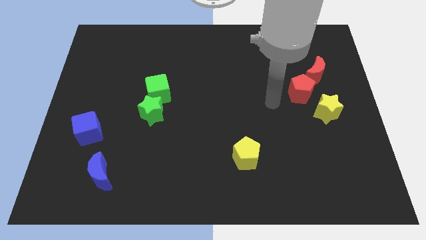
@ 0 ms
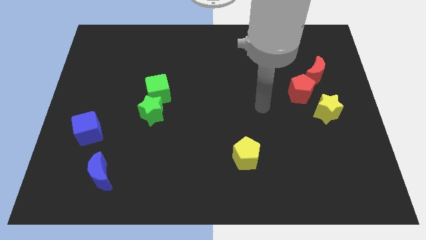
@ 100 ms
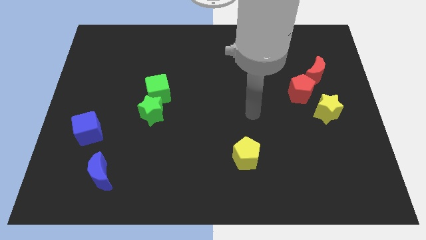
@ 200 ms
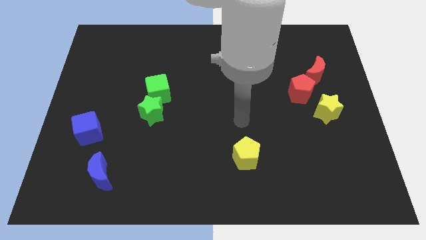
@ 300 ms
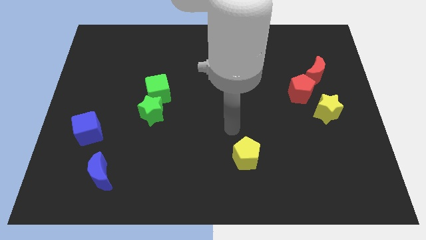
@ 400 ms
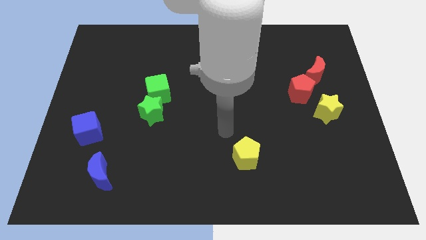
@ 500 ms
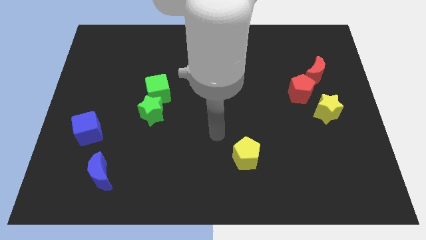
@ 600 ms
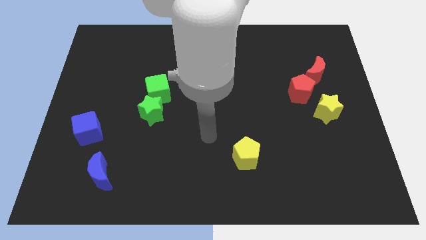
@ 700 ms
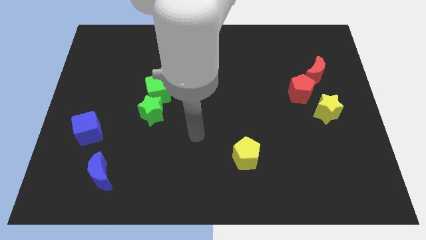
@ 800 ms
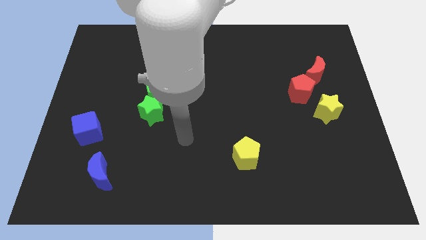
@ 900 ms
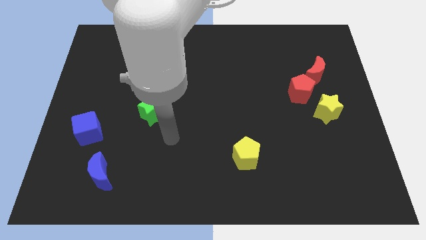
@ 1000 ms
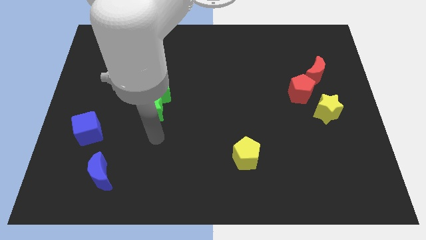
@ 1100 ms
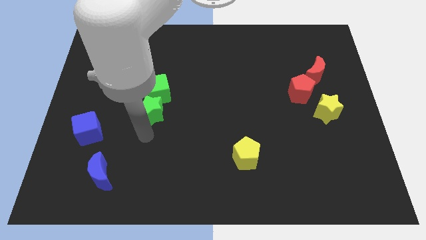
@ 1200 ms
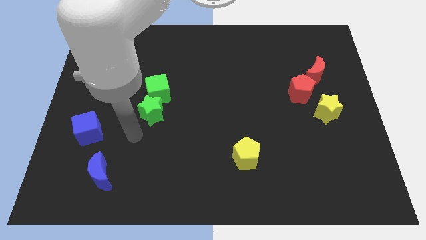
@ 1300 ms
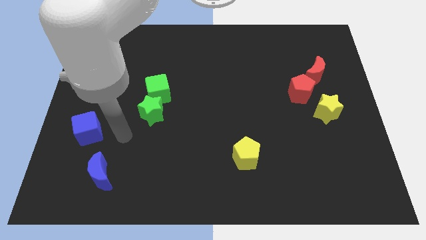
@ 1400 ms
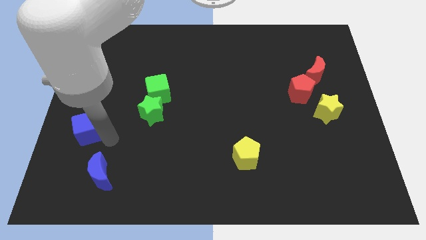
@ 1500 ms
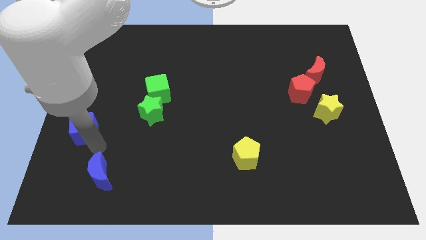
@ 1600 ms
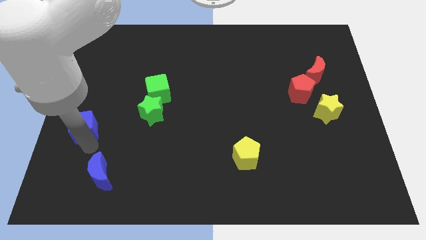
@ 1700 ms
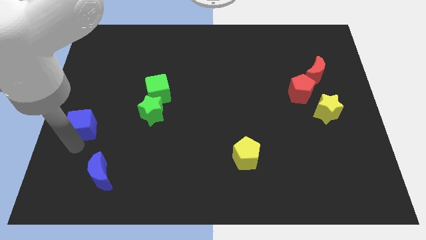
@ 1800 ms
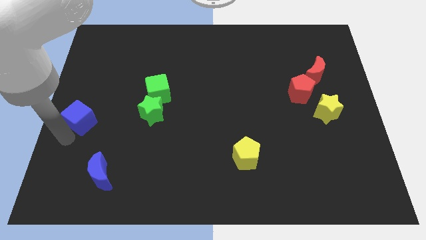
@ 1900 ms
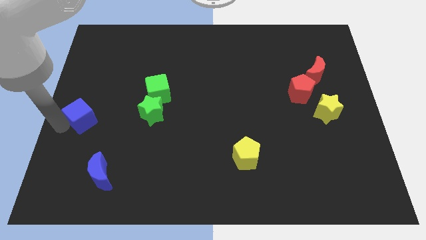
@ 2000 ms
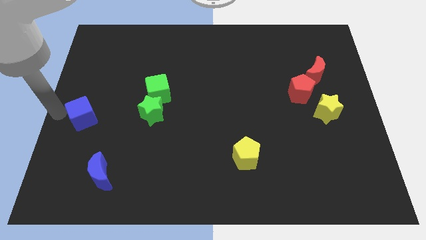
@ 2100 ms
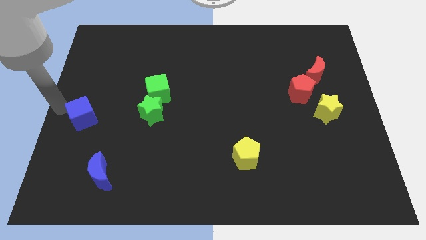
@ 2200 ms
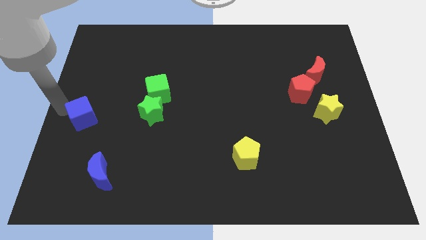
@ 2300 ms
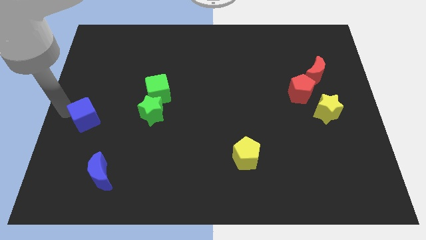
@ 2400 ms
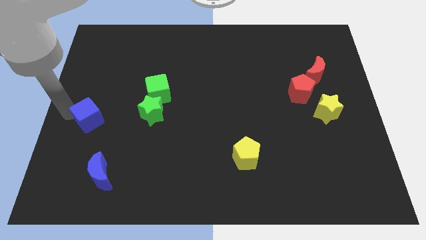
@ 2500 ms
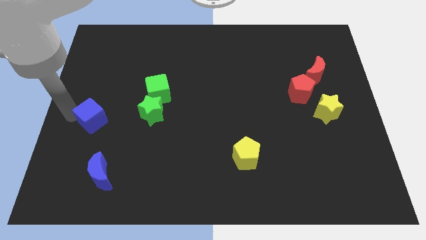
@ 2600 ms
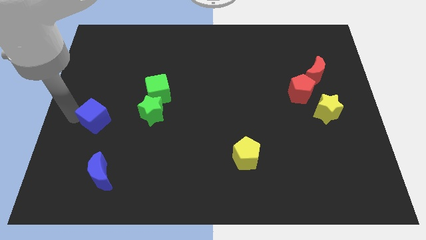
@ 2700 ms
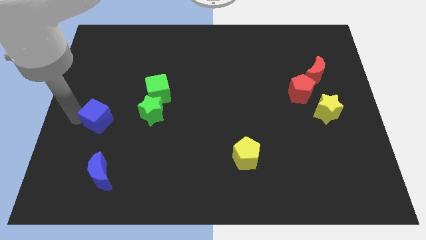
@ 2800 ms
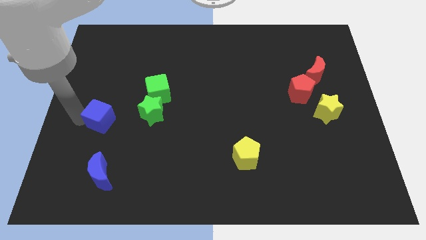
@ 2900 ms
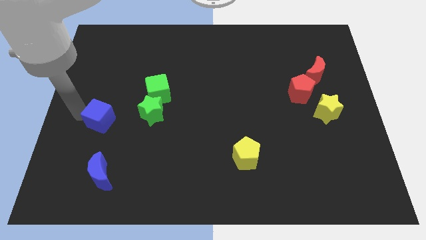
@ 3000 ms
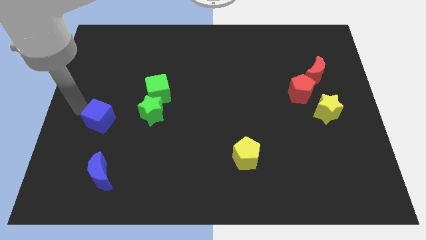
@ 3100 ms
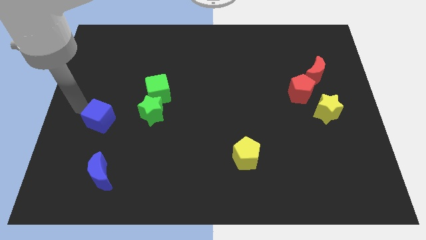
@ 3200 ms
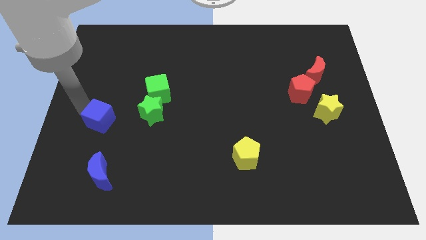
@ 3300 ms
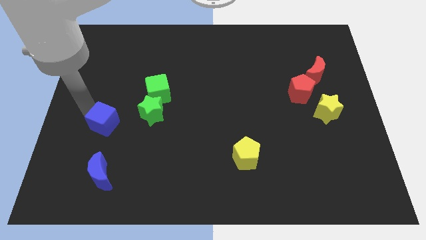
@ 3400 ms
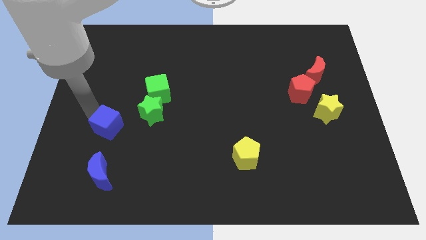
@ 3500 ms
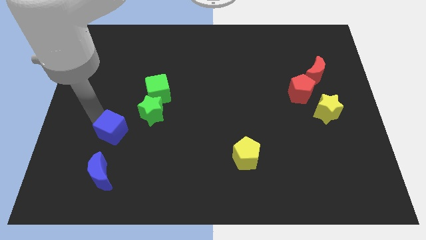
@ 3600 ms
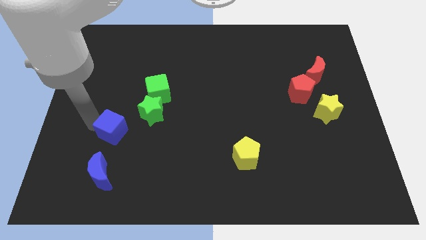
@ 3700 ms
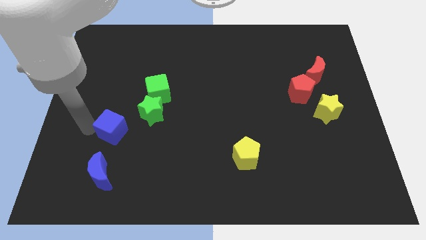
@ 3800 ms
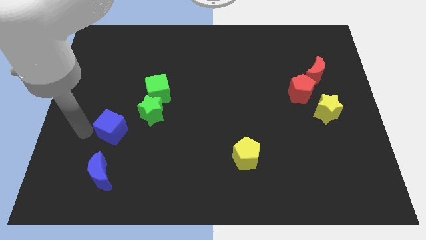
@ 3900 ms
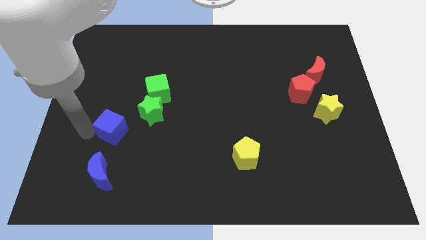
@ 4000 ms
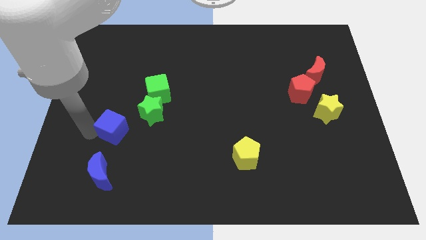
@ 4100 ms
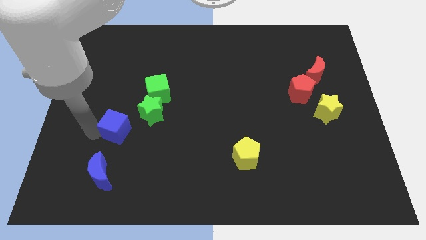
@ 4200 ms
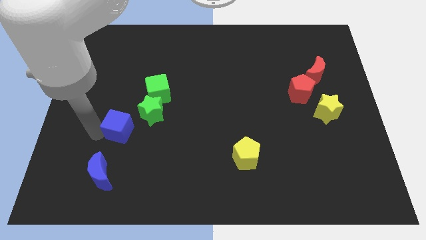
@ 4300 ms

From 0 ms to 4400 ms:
push the blue cube to the right somewhat

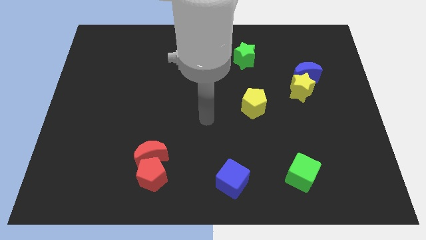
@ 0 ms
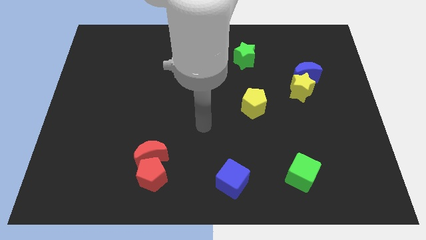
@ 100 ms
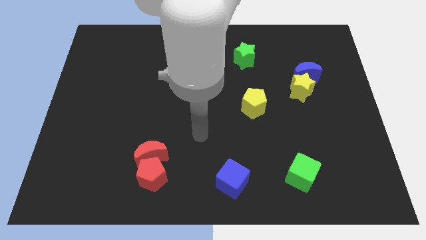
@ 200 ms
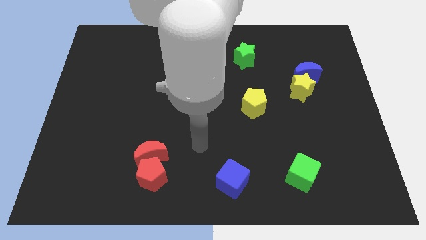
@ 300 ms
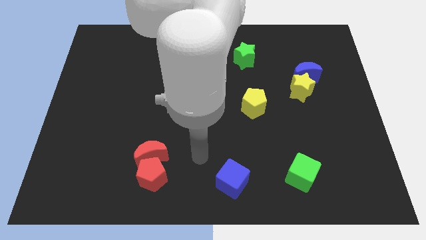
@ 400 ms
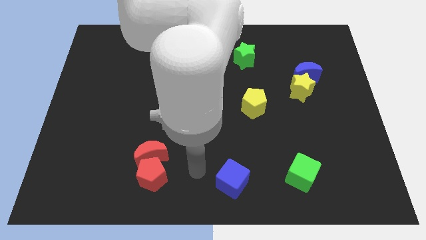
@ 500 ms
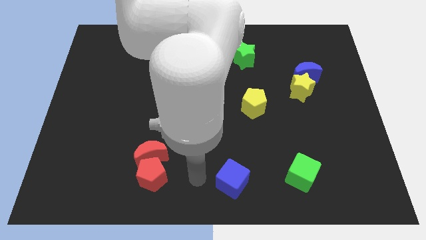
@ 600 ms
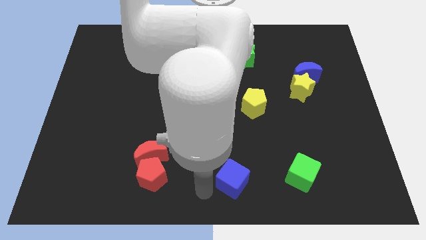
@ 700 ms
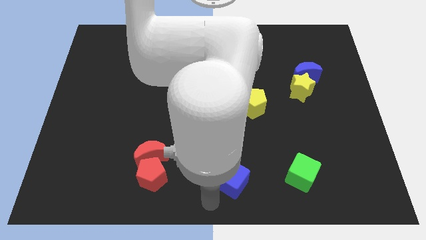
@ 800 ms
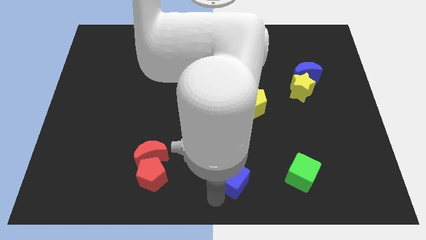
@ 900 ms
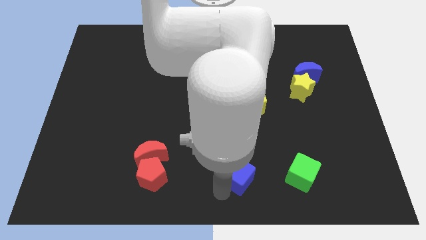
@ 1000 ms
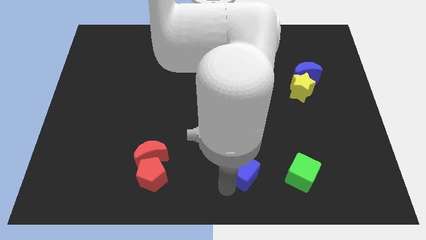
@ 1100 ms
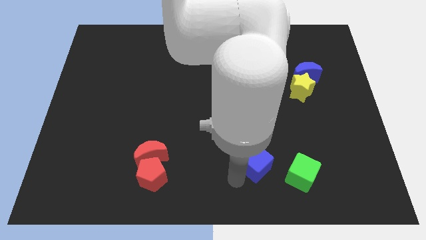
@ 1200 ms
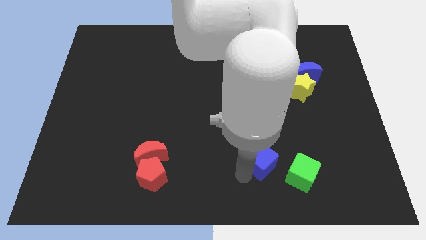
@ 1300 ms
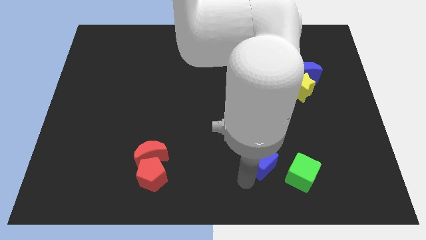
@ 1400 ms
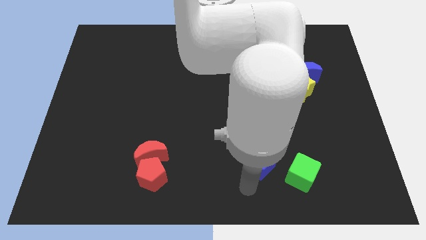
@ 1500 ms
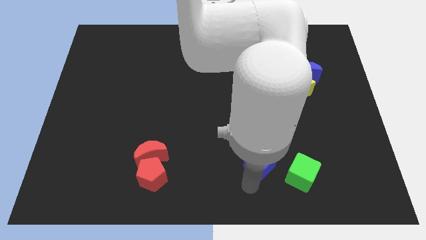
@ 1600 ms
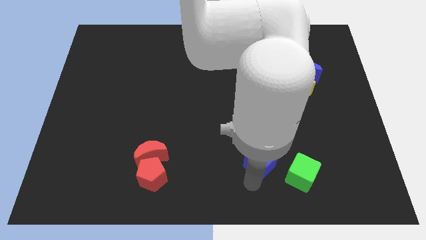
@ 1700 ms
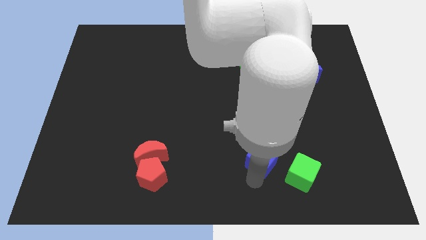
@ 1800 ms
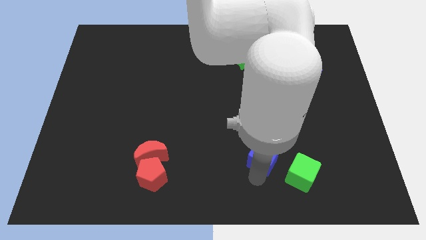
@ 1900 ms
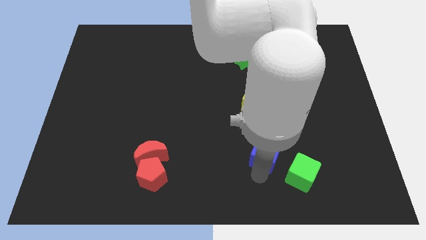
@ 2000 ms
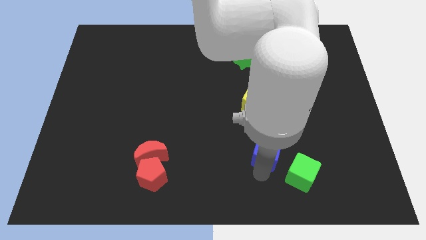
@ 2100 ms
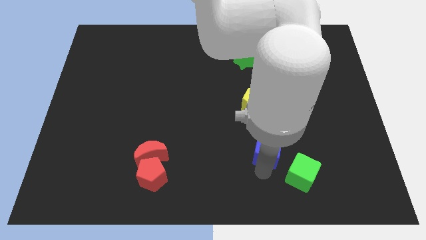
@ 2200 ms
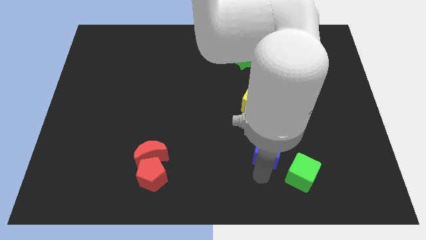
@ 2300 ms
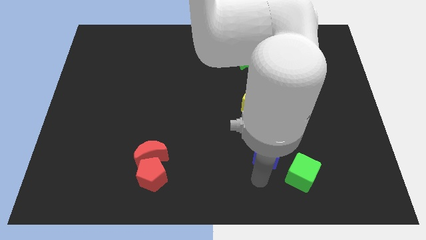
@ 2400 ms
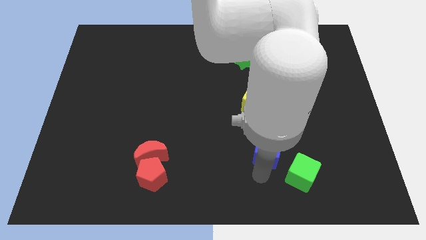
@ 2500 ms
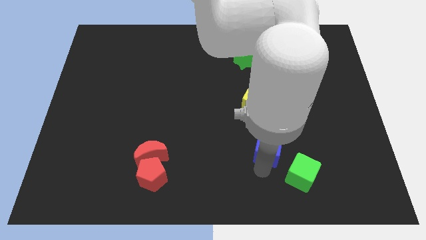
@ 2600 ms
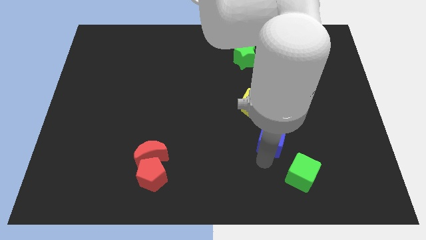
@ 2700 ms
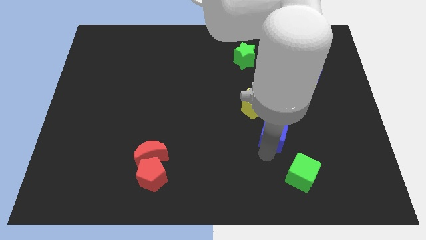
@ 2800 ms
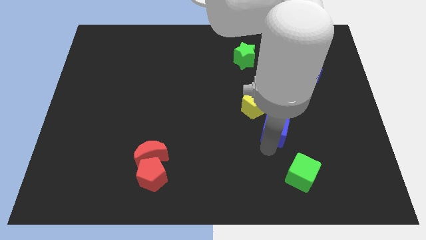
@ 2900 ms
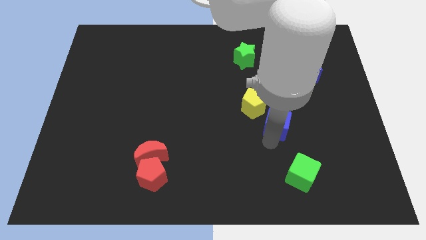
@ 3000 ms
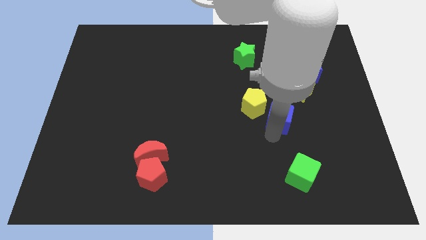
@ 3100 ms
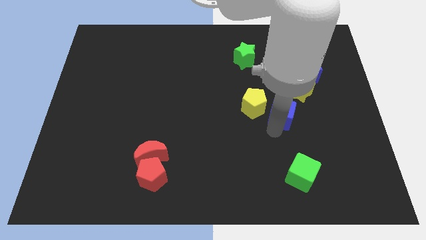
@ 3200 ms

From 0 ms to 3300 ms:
slide the blue cube diagonally upwards and to the right
